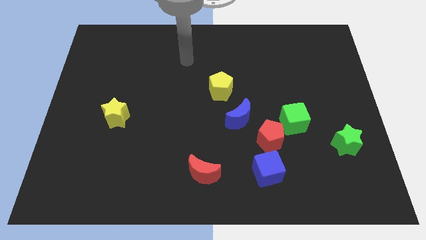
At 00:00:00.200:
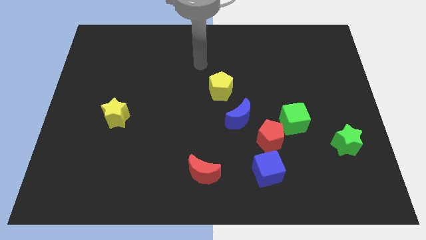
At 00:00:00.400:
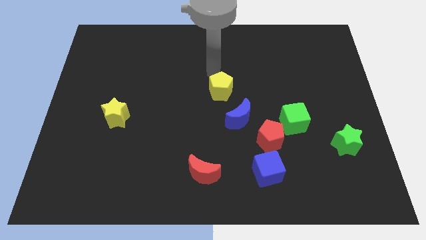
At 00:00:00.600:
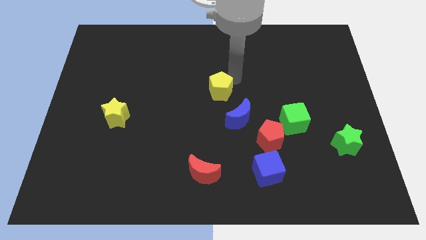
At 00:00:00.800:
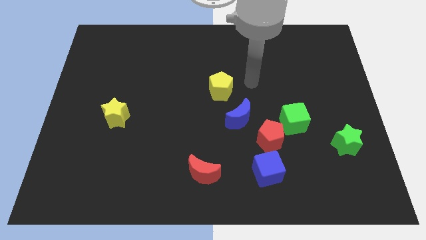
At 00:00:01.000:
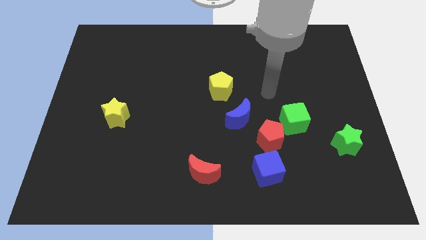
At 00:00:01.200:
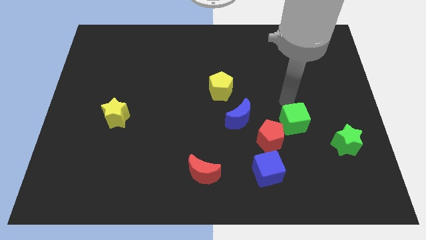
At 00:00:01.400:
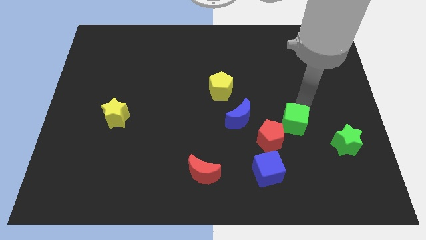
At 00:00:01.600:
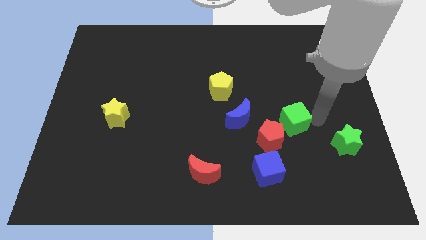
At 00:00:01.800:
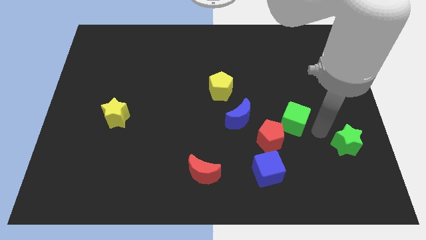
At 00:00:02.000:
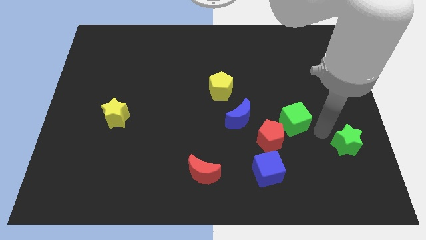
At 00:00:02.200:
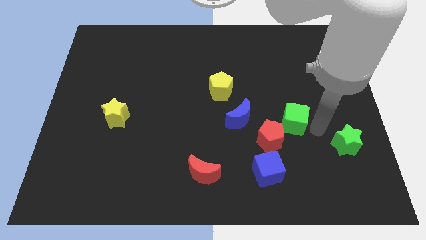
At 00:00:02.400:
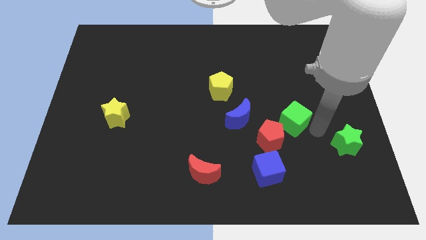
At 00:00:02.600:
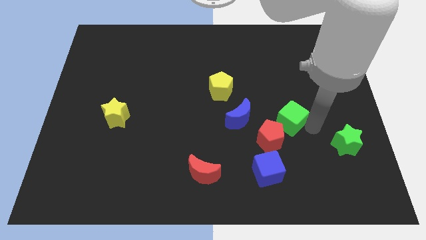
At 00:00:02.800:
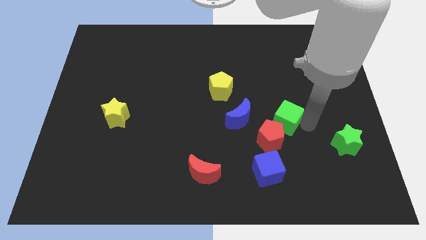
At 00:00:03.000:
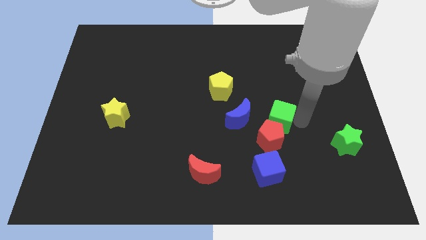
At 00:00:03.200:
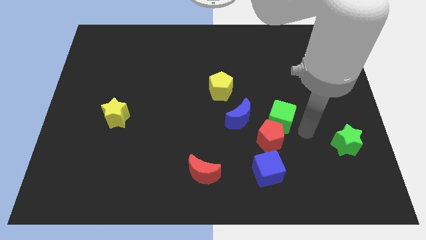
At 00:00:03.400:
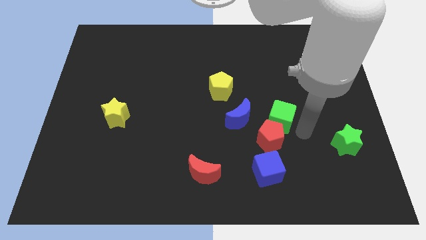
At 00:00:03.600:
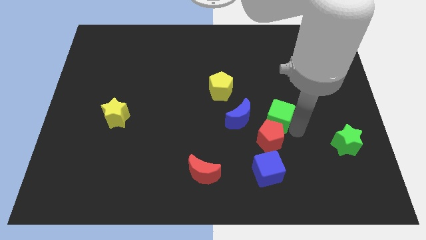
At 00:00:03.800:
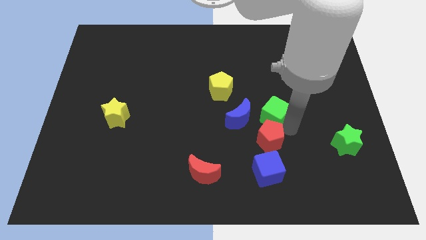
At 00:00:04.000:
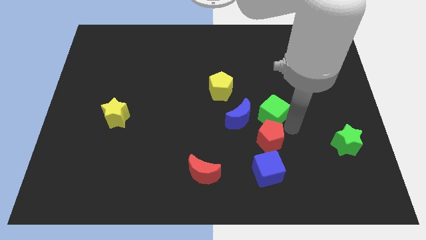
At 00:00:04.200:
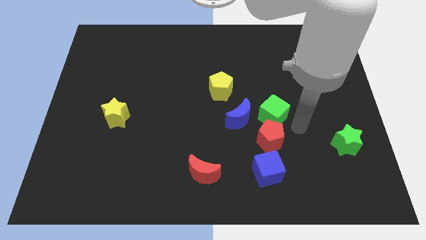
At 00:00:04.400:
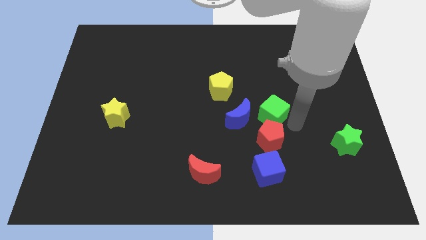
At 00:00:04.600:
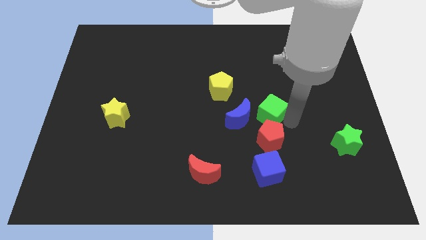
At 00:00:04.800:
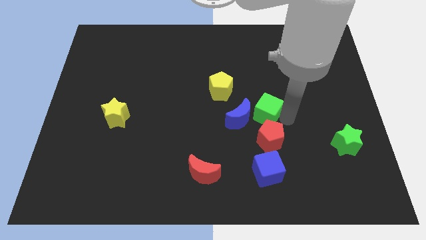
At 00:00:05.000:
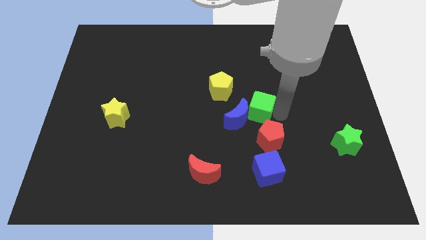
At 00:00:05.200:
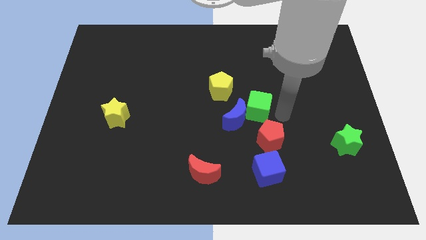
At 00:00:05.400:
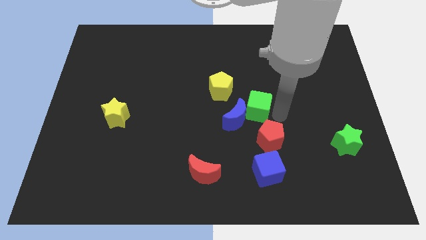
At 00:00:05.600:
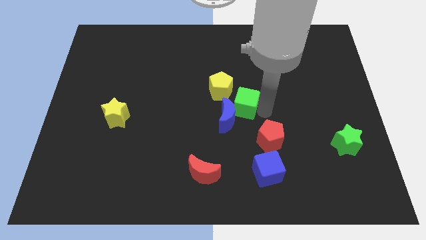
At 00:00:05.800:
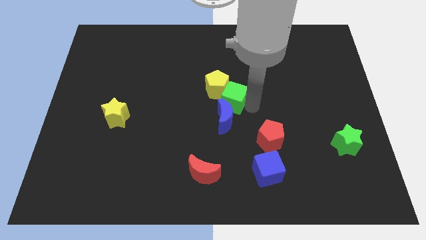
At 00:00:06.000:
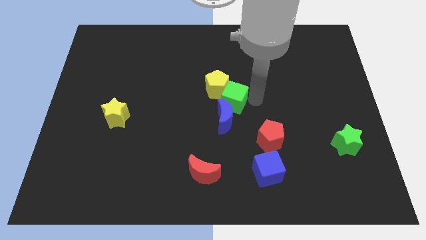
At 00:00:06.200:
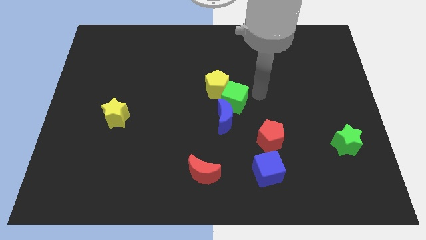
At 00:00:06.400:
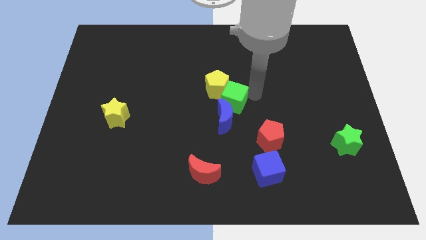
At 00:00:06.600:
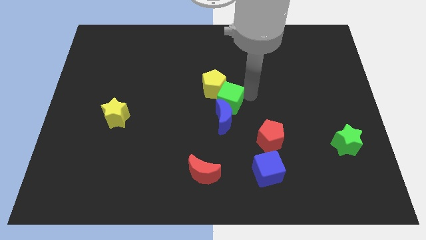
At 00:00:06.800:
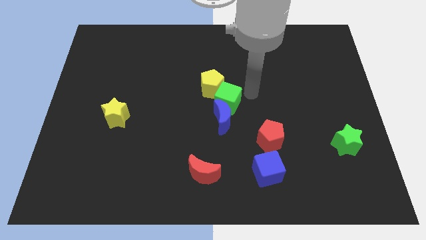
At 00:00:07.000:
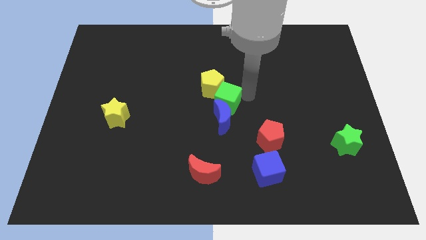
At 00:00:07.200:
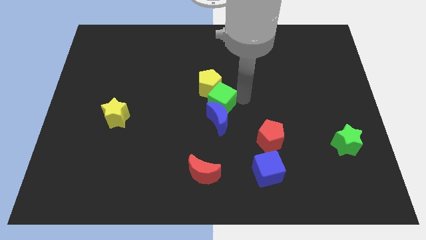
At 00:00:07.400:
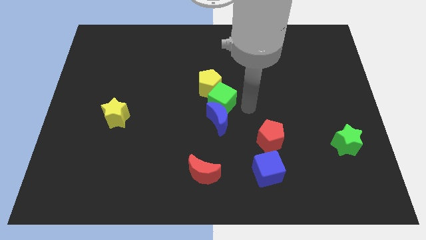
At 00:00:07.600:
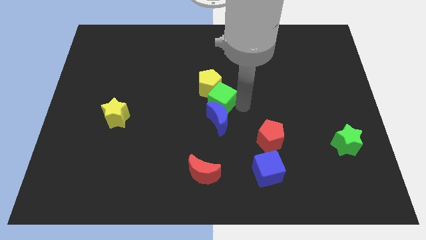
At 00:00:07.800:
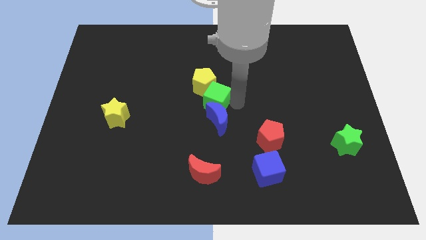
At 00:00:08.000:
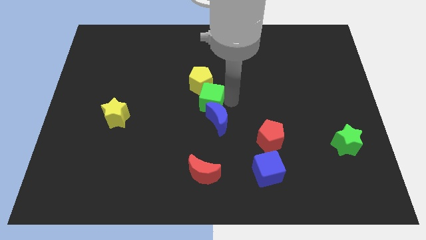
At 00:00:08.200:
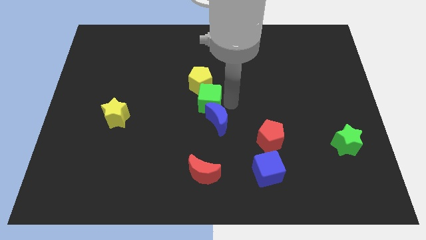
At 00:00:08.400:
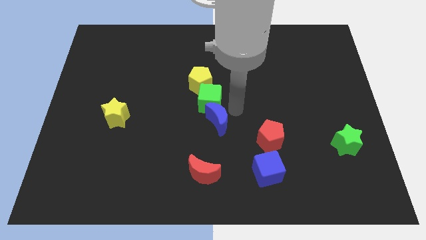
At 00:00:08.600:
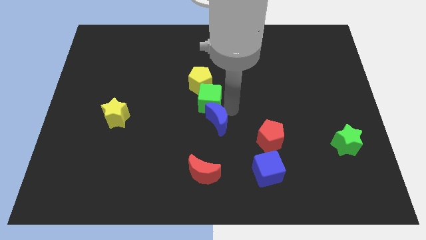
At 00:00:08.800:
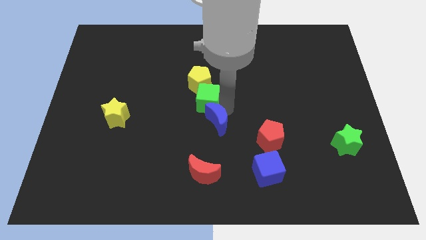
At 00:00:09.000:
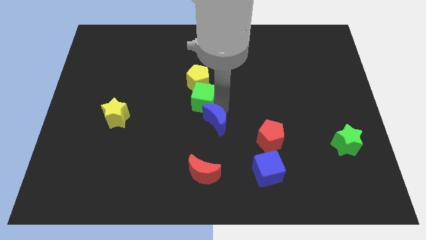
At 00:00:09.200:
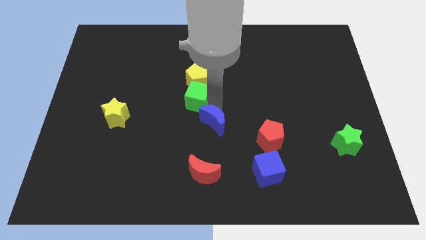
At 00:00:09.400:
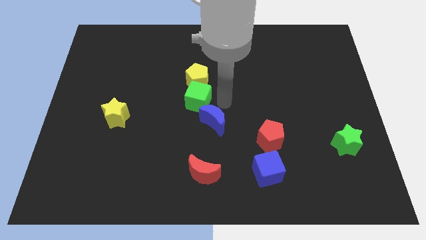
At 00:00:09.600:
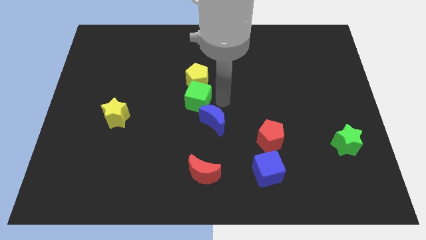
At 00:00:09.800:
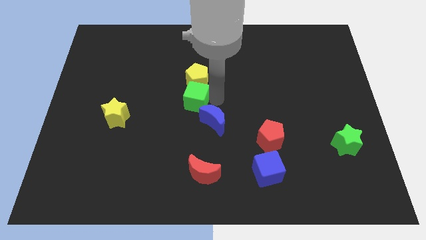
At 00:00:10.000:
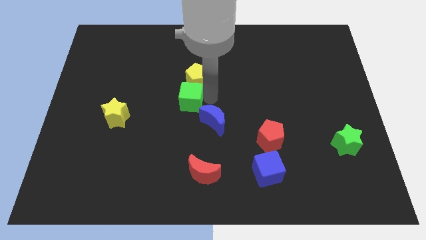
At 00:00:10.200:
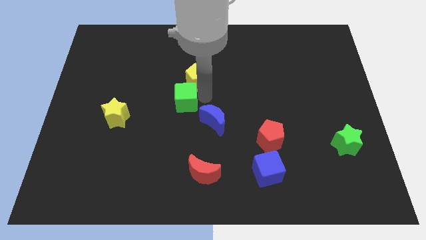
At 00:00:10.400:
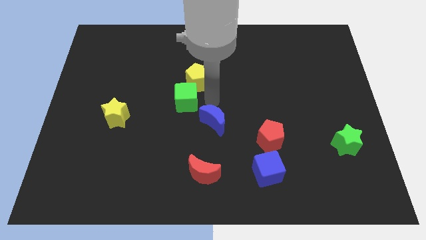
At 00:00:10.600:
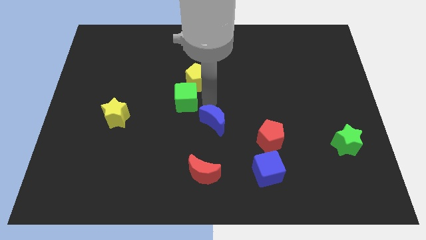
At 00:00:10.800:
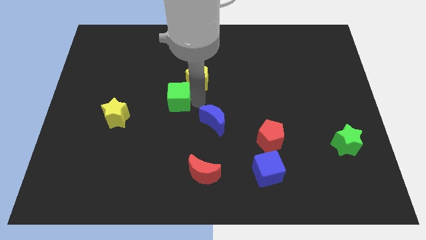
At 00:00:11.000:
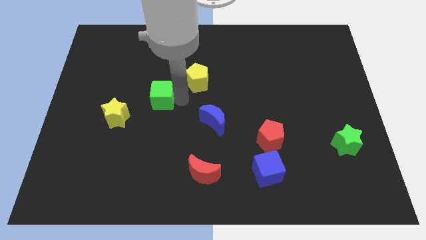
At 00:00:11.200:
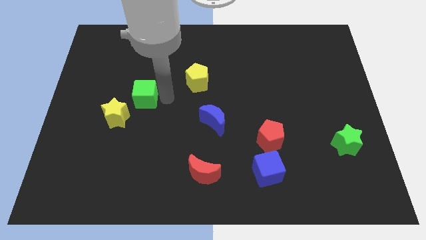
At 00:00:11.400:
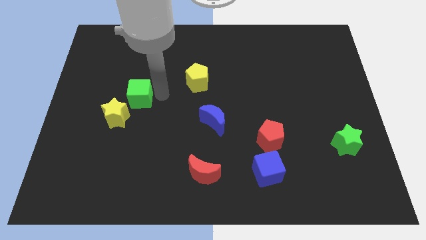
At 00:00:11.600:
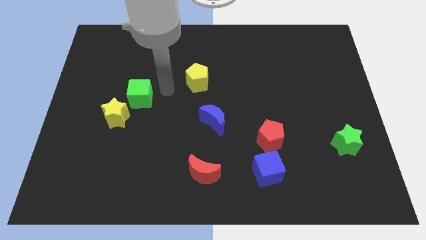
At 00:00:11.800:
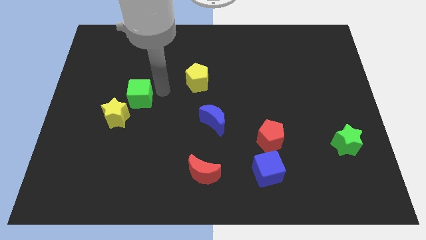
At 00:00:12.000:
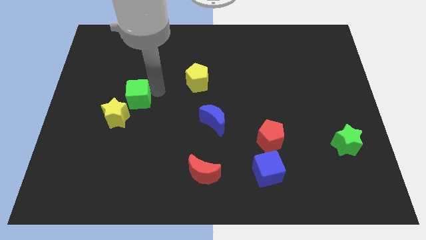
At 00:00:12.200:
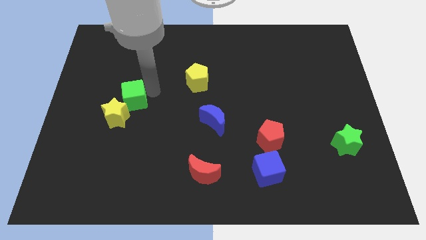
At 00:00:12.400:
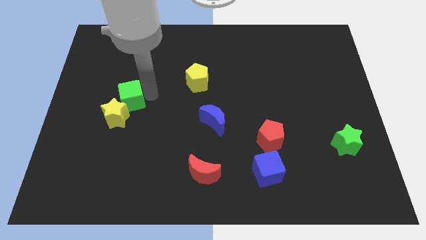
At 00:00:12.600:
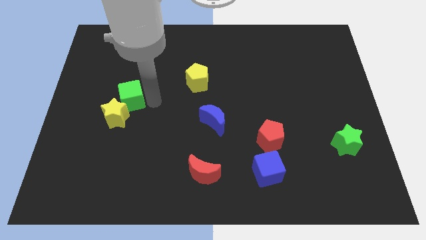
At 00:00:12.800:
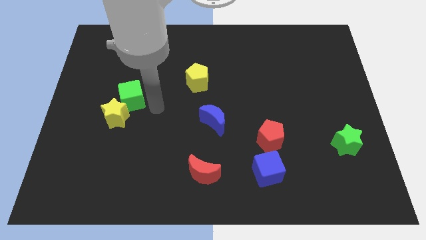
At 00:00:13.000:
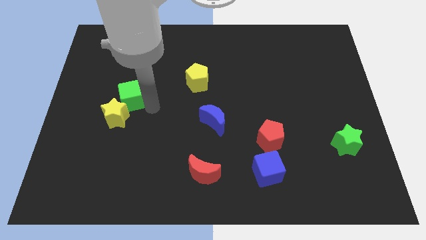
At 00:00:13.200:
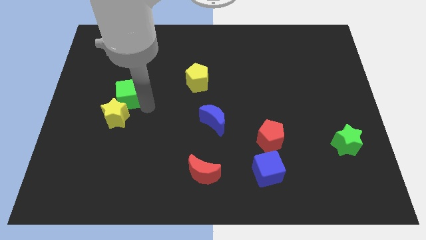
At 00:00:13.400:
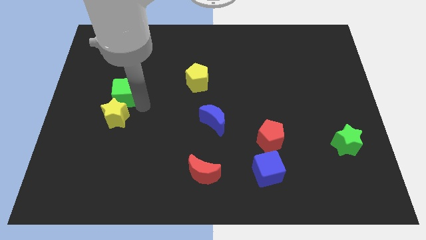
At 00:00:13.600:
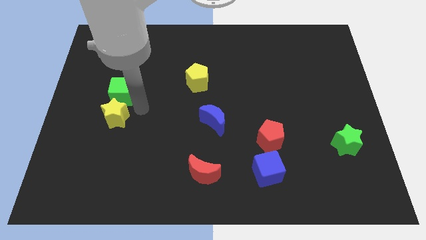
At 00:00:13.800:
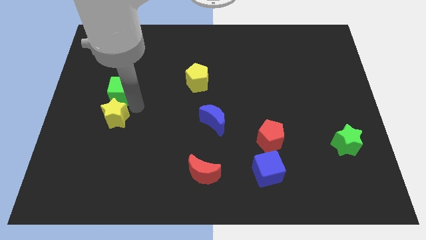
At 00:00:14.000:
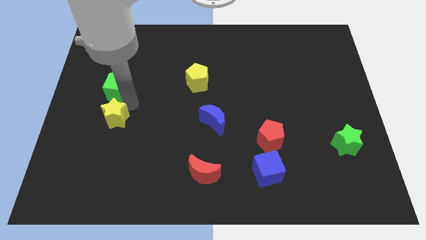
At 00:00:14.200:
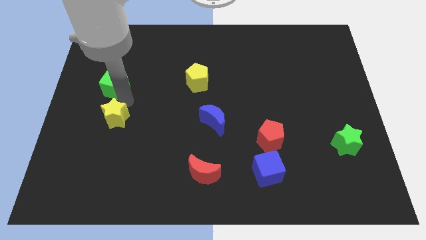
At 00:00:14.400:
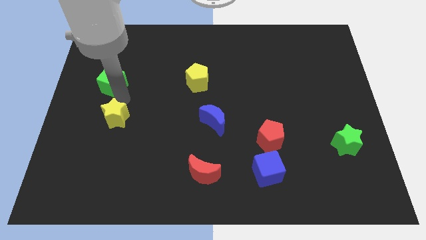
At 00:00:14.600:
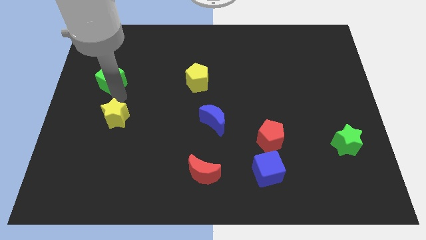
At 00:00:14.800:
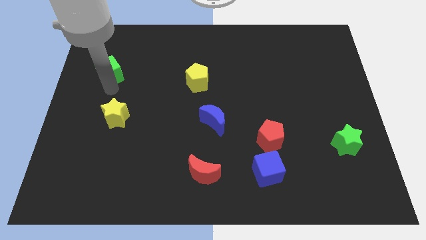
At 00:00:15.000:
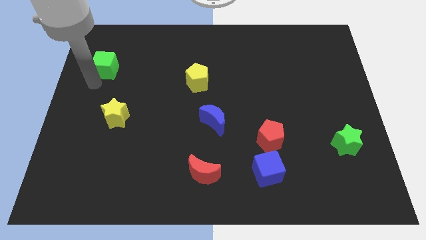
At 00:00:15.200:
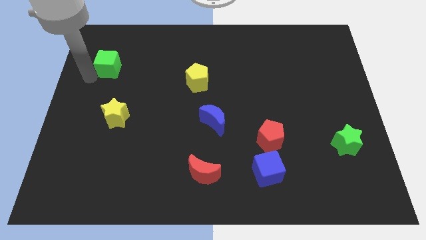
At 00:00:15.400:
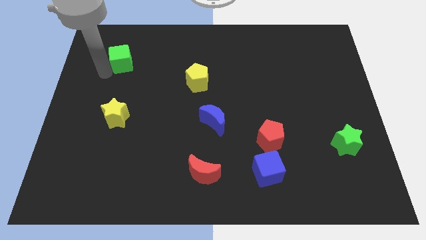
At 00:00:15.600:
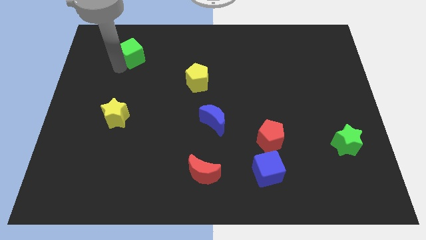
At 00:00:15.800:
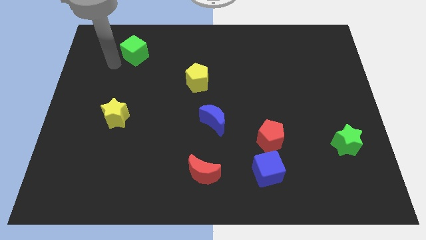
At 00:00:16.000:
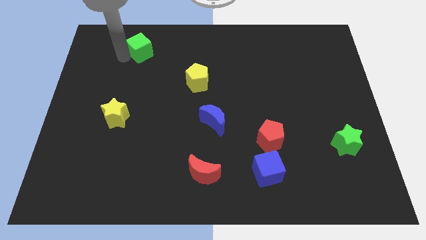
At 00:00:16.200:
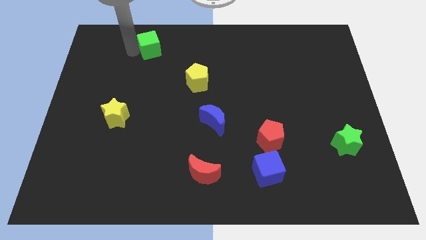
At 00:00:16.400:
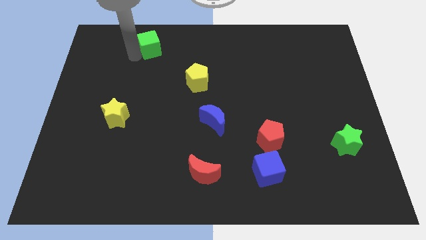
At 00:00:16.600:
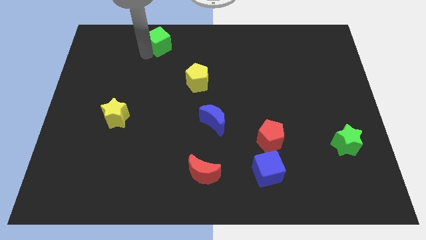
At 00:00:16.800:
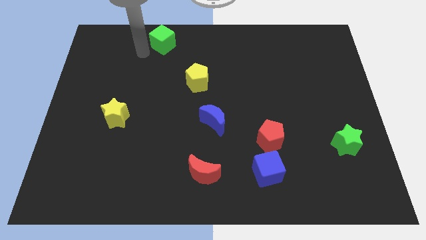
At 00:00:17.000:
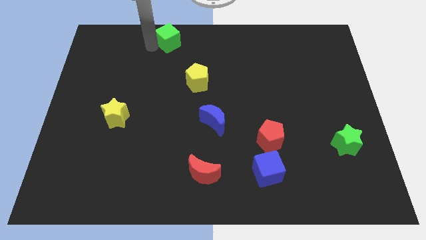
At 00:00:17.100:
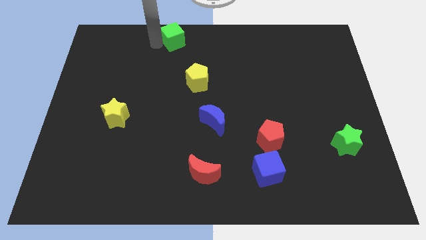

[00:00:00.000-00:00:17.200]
put the green cube to the top
